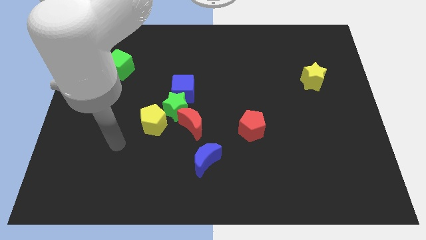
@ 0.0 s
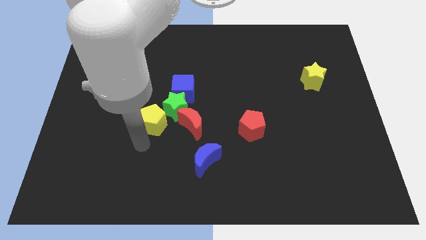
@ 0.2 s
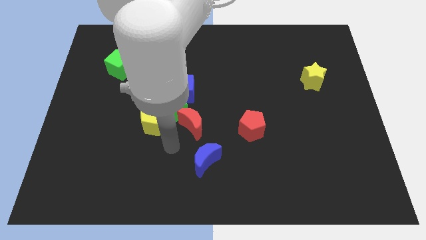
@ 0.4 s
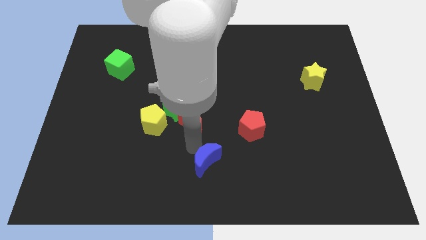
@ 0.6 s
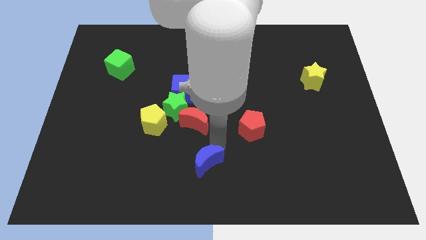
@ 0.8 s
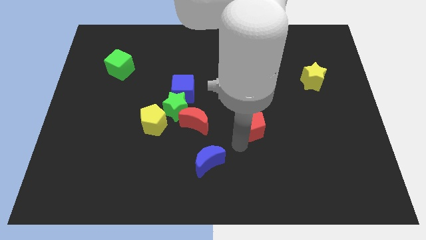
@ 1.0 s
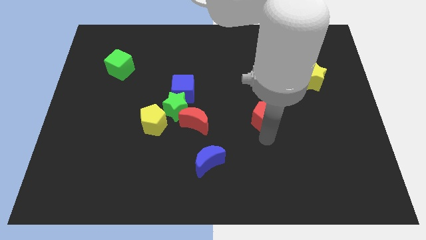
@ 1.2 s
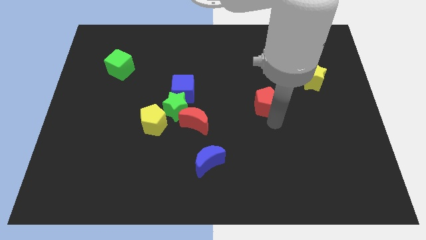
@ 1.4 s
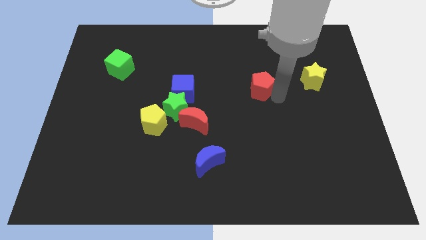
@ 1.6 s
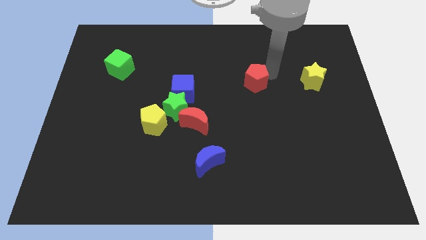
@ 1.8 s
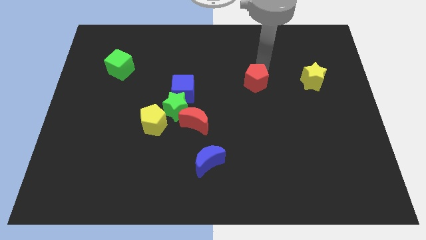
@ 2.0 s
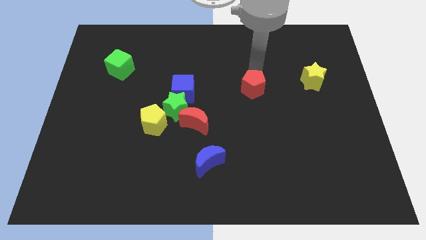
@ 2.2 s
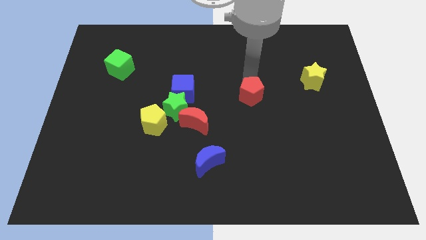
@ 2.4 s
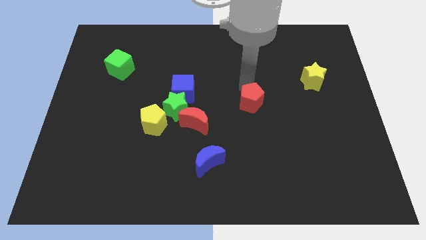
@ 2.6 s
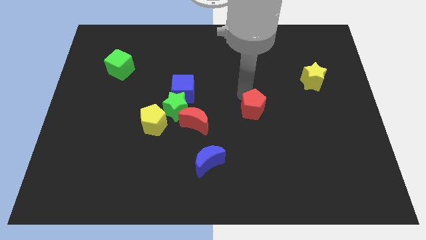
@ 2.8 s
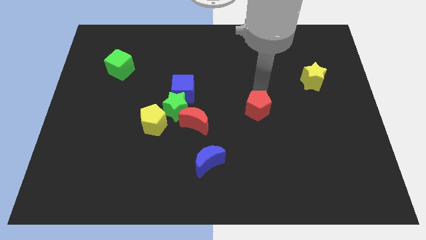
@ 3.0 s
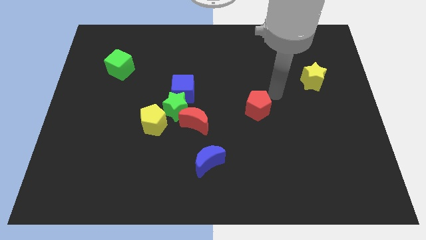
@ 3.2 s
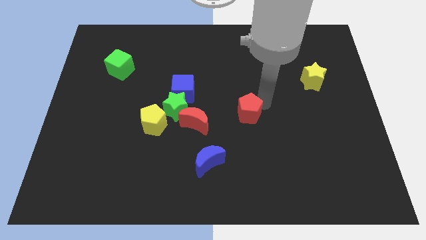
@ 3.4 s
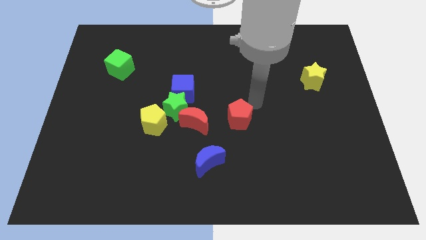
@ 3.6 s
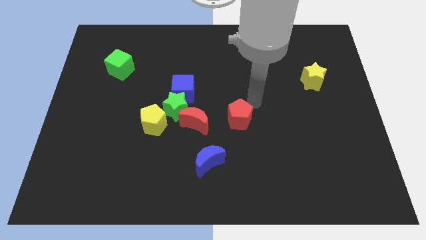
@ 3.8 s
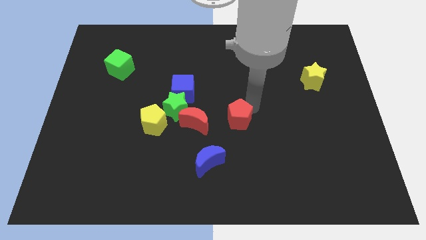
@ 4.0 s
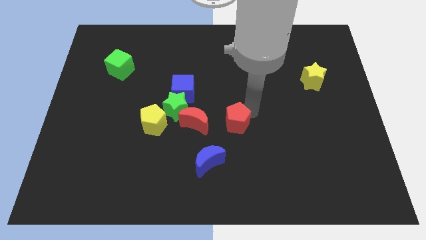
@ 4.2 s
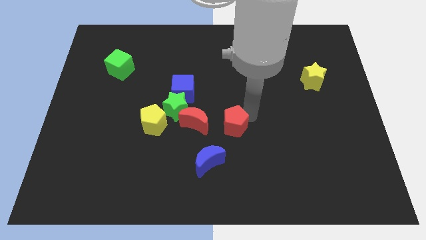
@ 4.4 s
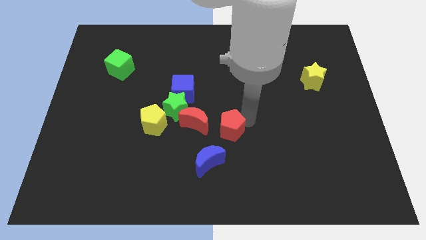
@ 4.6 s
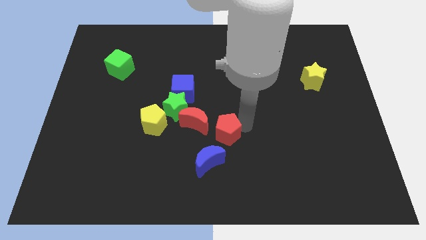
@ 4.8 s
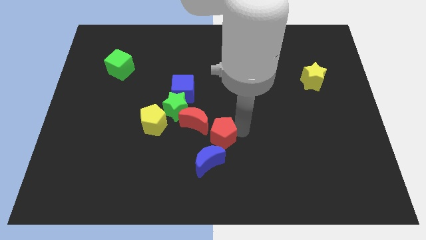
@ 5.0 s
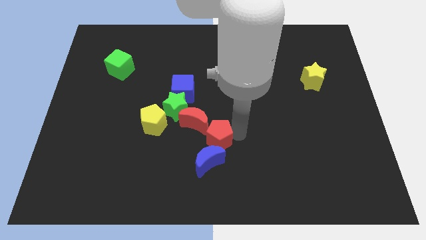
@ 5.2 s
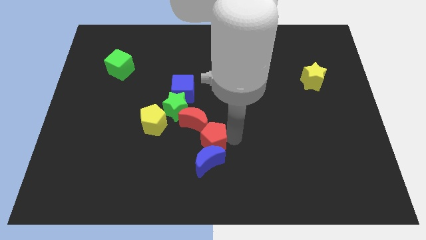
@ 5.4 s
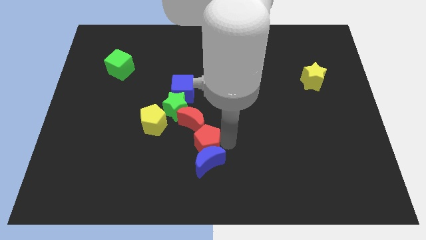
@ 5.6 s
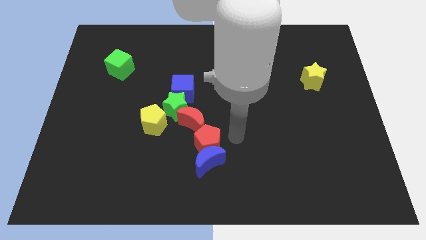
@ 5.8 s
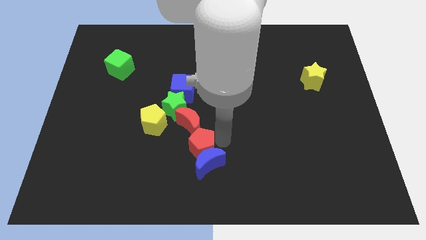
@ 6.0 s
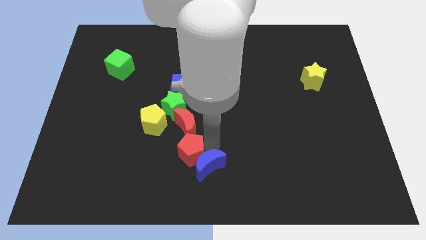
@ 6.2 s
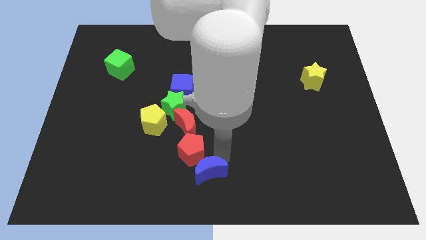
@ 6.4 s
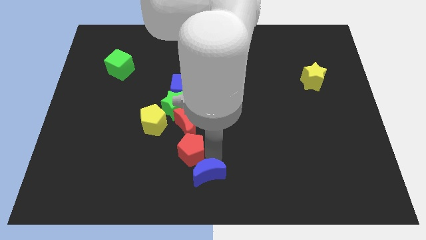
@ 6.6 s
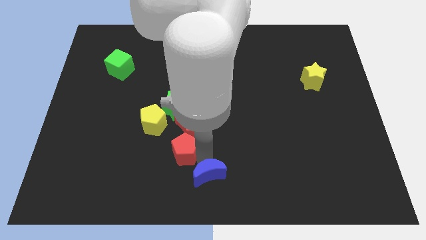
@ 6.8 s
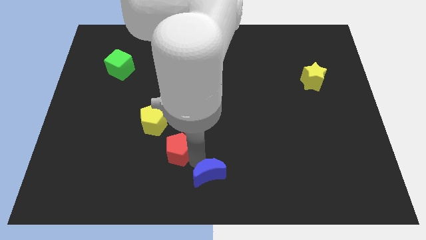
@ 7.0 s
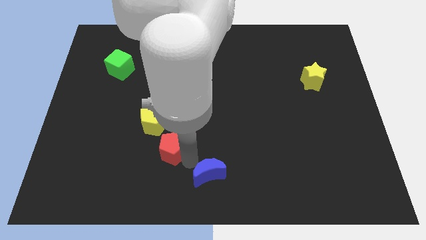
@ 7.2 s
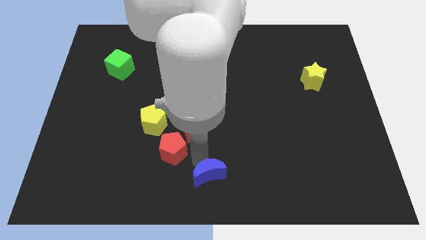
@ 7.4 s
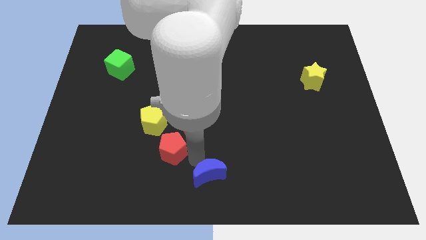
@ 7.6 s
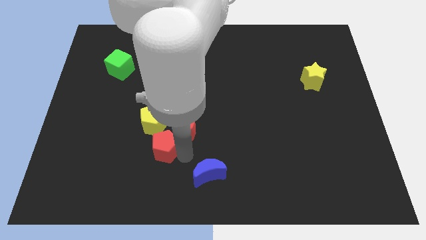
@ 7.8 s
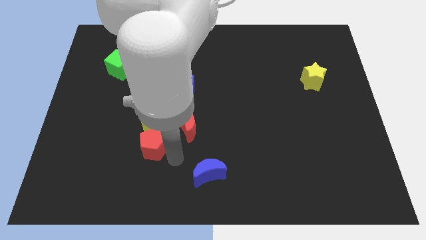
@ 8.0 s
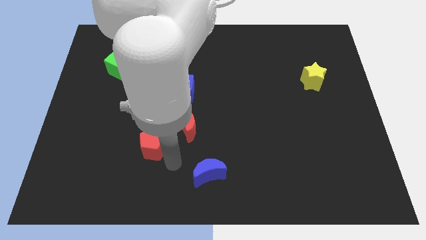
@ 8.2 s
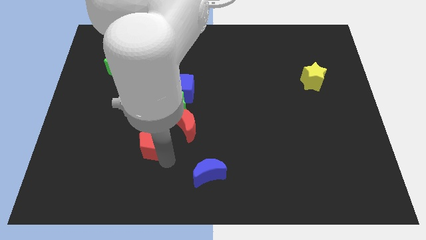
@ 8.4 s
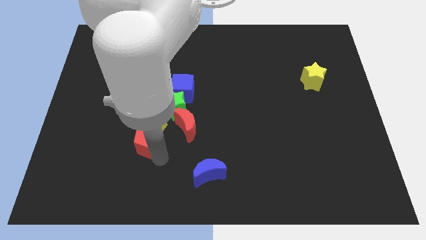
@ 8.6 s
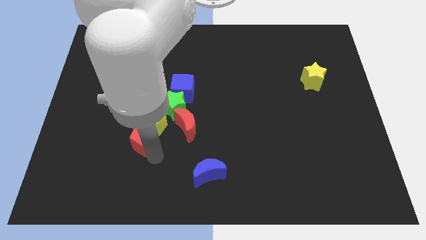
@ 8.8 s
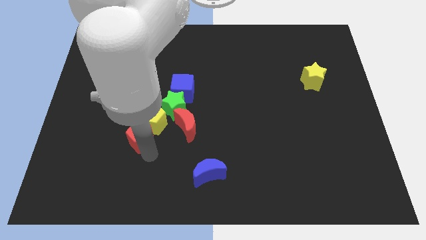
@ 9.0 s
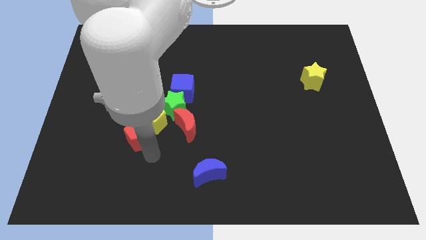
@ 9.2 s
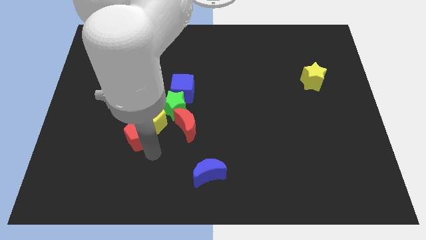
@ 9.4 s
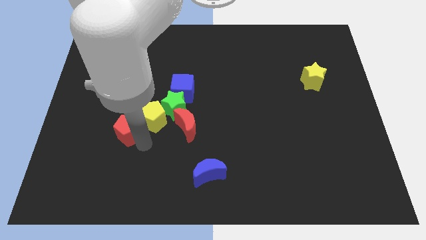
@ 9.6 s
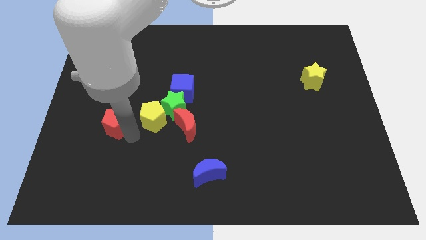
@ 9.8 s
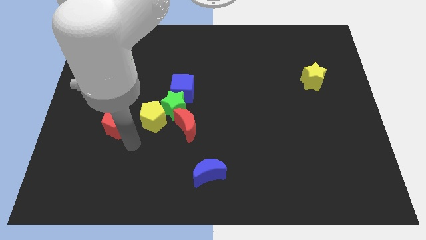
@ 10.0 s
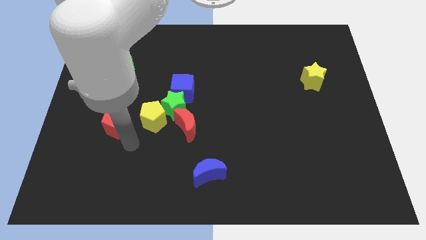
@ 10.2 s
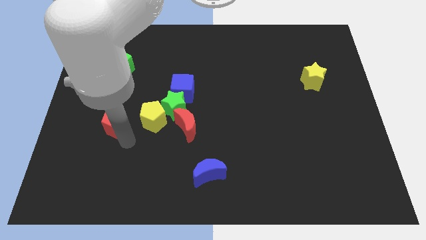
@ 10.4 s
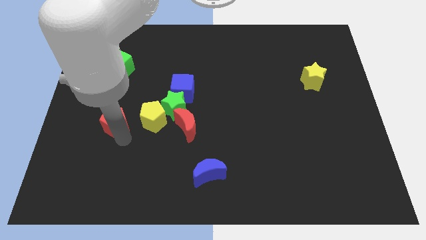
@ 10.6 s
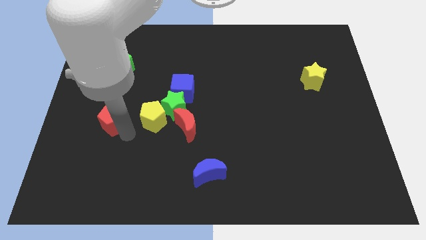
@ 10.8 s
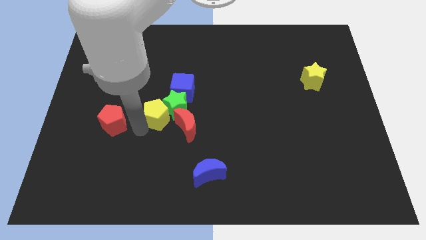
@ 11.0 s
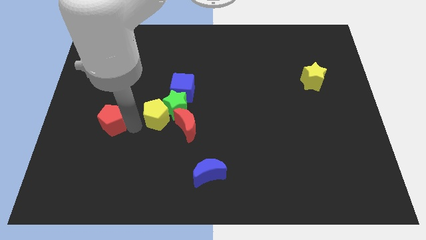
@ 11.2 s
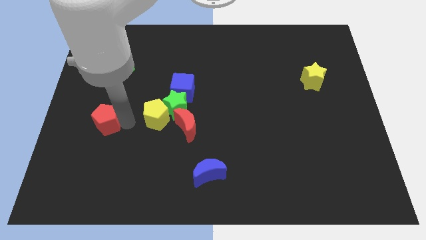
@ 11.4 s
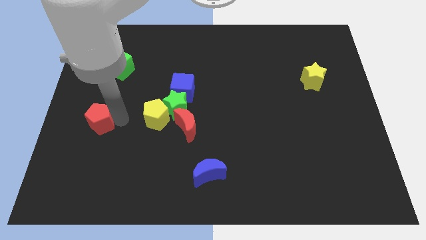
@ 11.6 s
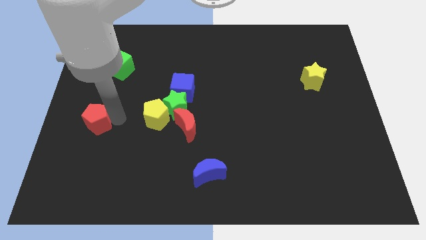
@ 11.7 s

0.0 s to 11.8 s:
slide the red pentagon to the left side of the board
